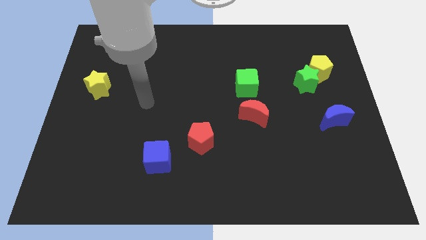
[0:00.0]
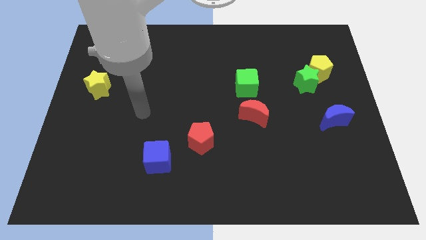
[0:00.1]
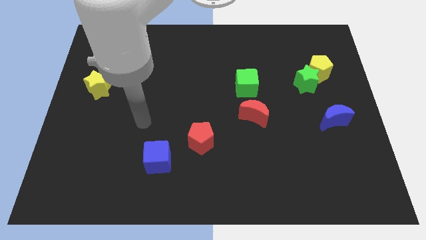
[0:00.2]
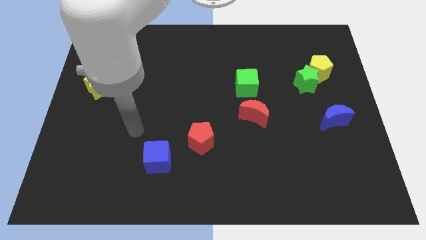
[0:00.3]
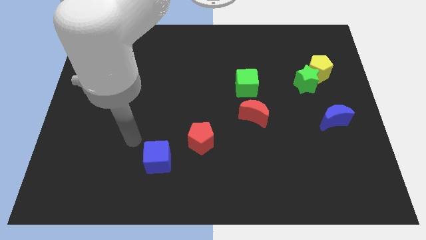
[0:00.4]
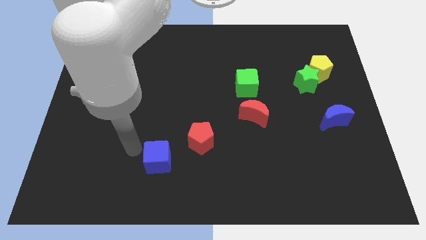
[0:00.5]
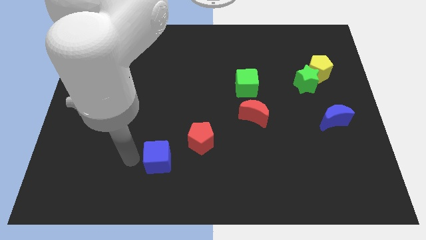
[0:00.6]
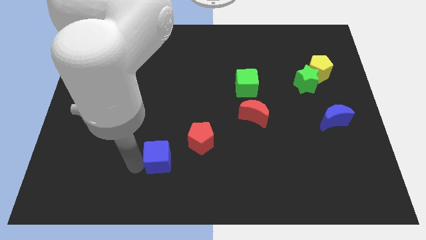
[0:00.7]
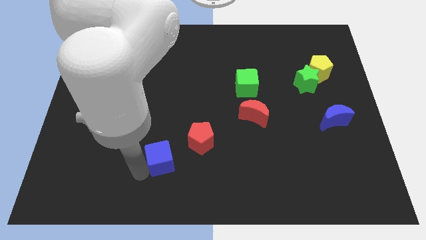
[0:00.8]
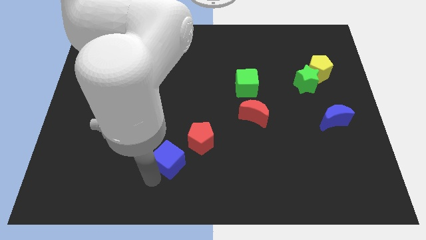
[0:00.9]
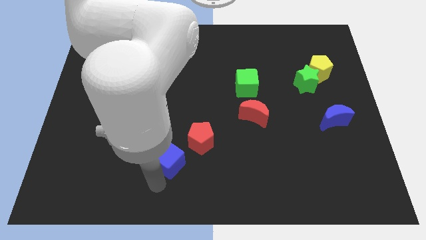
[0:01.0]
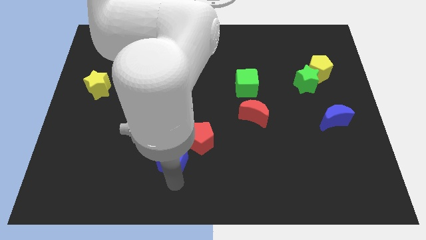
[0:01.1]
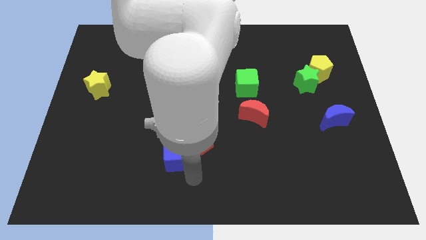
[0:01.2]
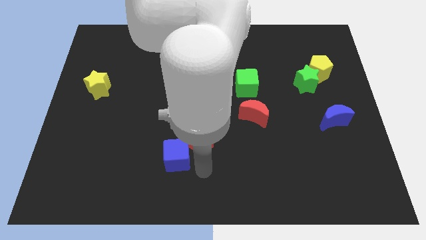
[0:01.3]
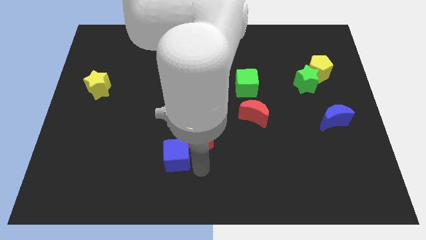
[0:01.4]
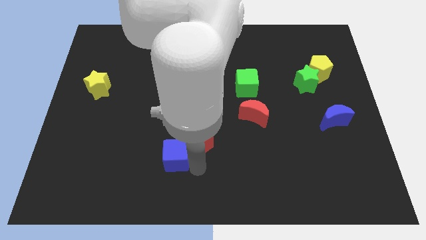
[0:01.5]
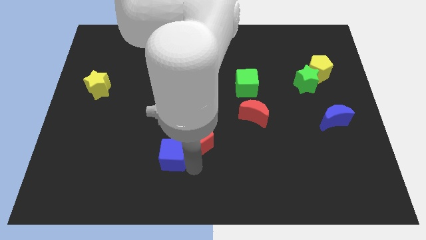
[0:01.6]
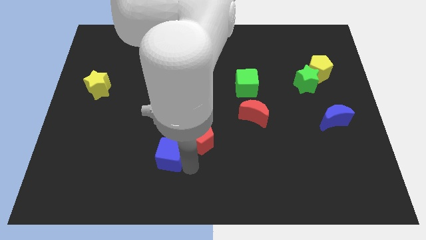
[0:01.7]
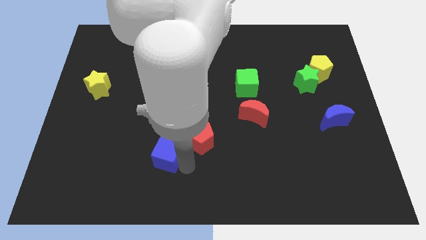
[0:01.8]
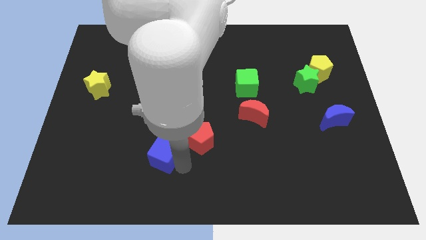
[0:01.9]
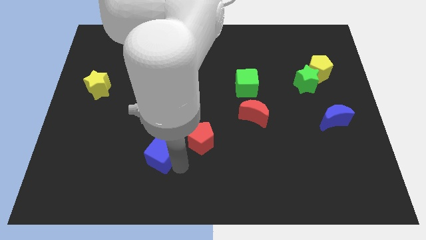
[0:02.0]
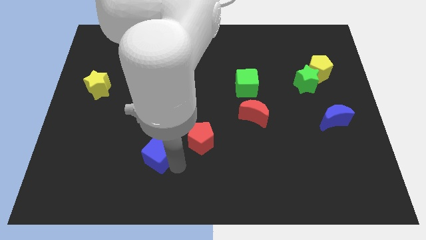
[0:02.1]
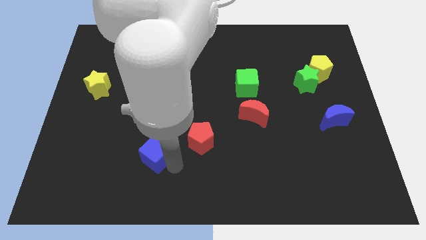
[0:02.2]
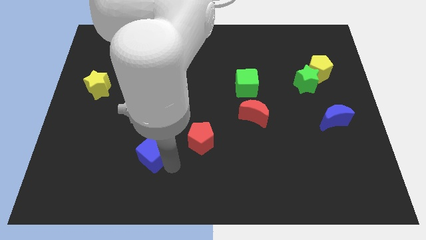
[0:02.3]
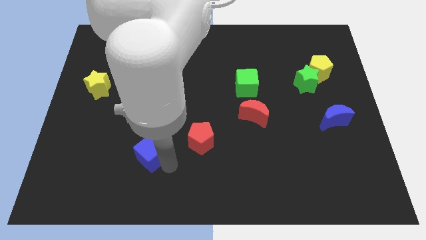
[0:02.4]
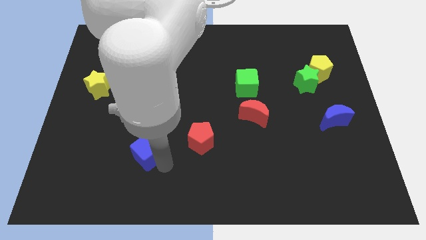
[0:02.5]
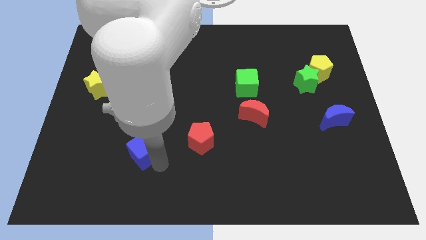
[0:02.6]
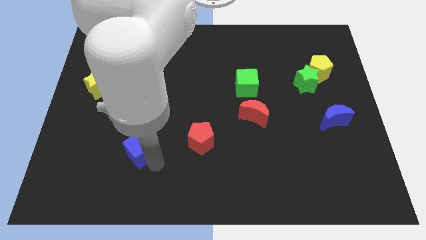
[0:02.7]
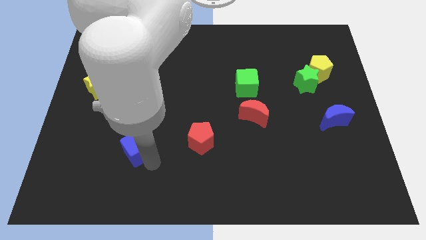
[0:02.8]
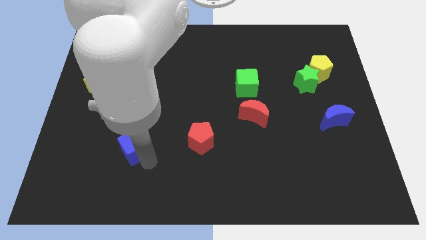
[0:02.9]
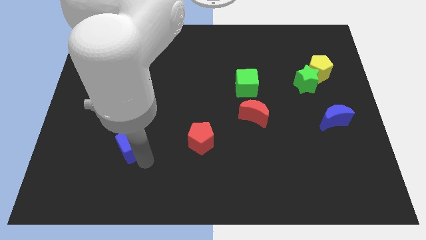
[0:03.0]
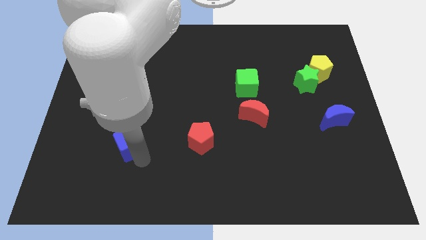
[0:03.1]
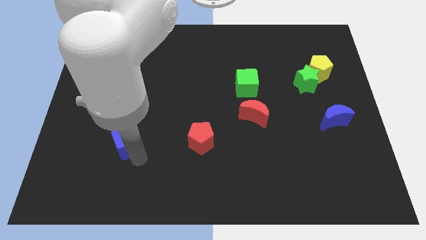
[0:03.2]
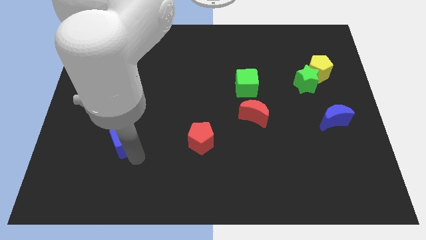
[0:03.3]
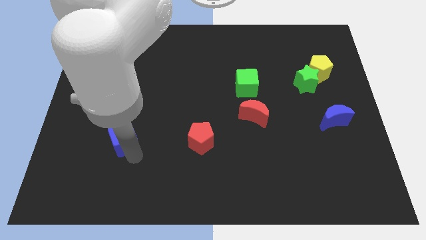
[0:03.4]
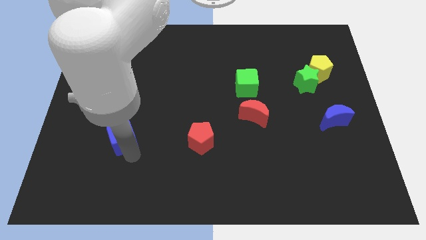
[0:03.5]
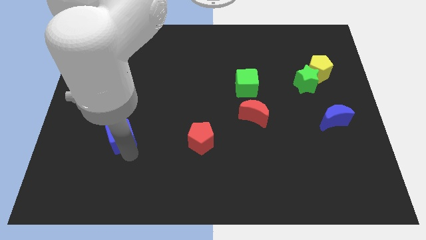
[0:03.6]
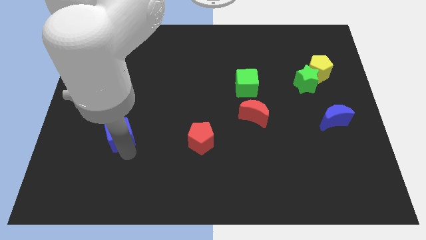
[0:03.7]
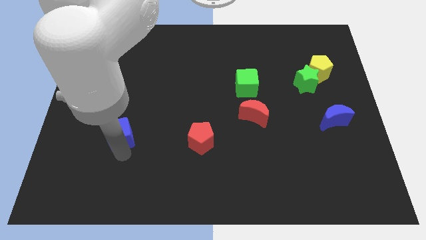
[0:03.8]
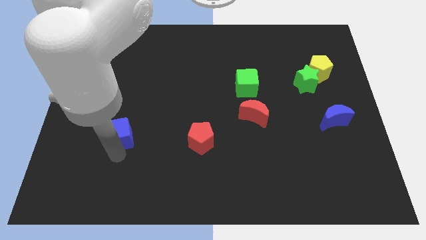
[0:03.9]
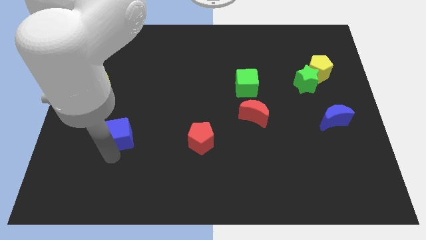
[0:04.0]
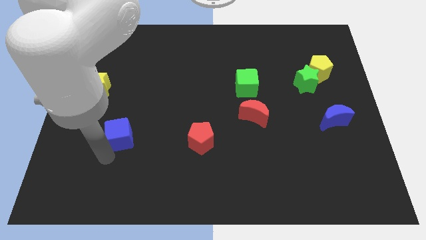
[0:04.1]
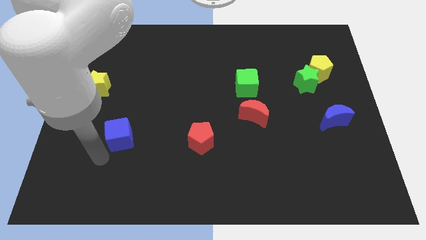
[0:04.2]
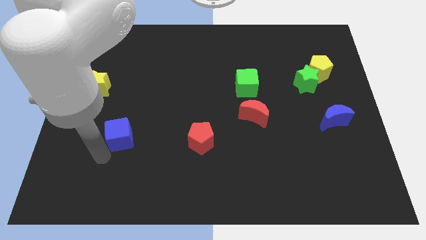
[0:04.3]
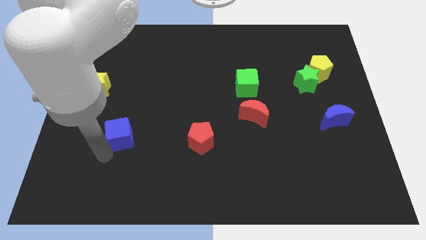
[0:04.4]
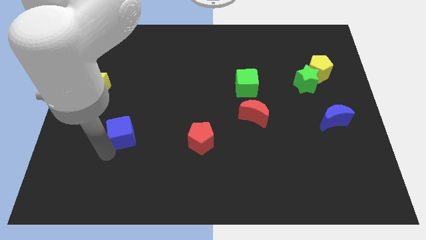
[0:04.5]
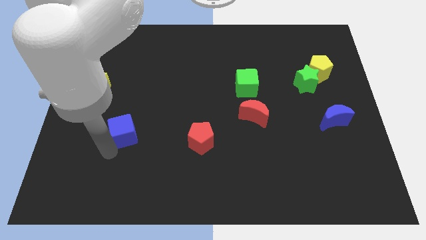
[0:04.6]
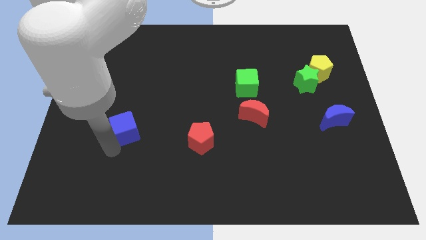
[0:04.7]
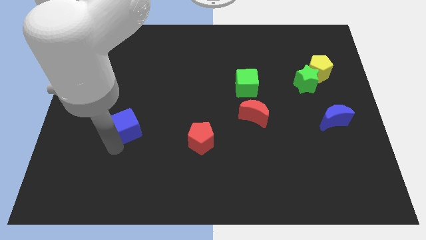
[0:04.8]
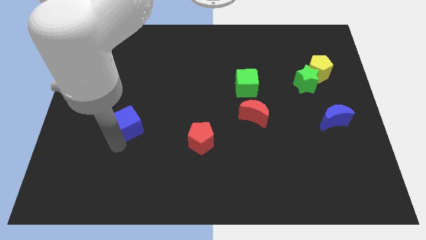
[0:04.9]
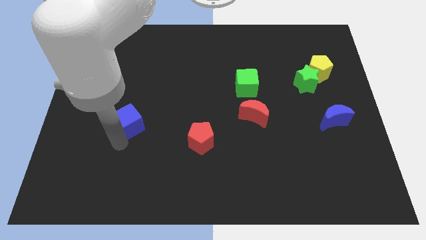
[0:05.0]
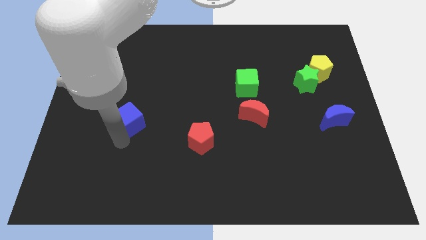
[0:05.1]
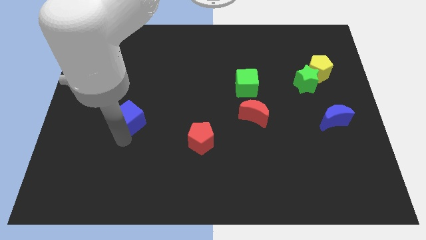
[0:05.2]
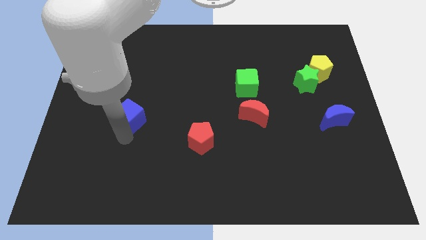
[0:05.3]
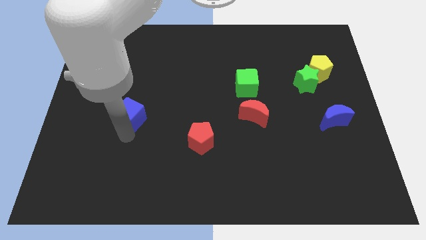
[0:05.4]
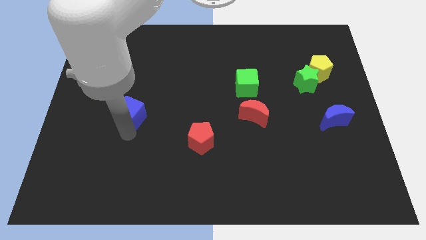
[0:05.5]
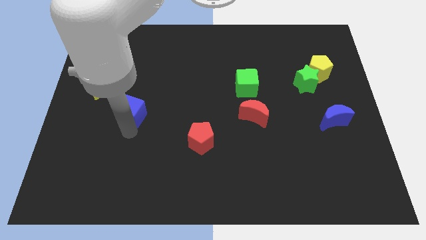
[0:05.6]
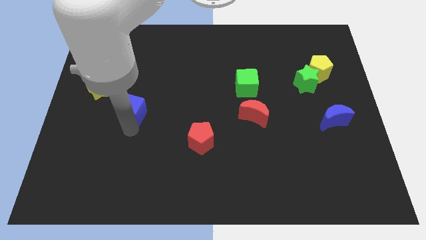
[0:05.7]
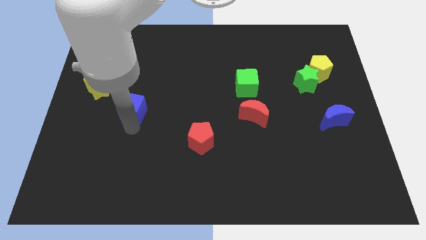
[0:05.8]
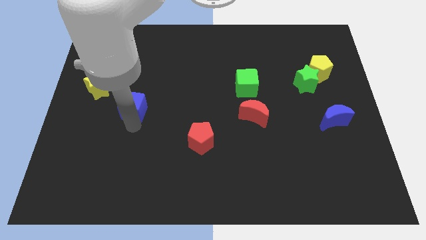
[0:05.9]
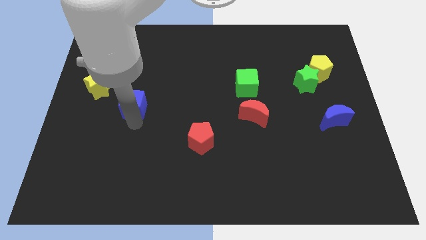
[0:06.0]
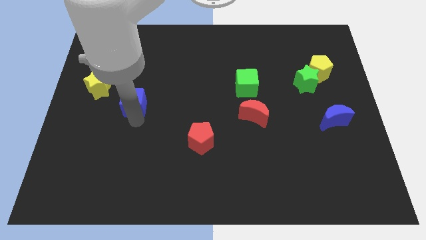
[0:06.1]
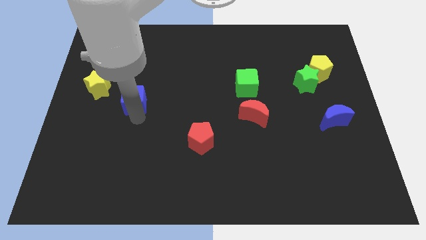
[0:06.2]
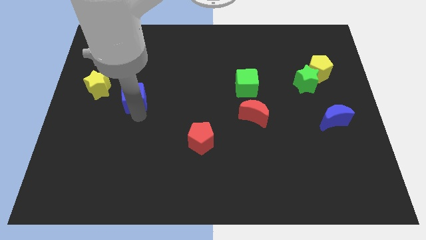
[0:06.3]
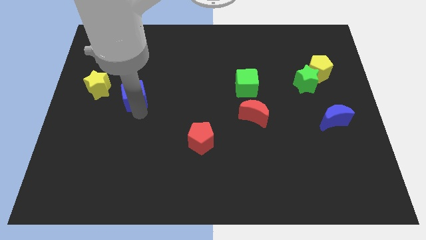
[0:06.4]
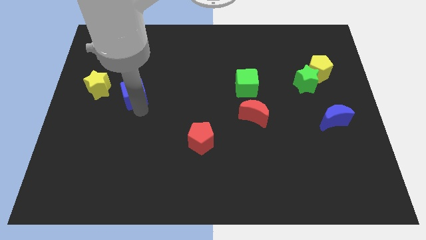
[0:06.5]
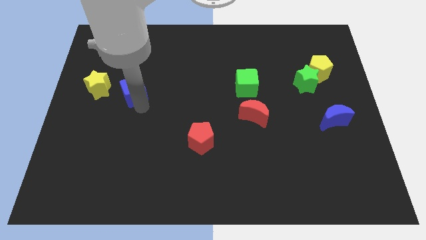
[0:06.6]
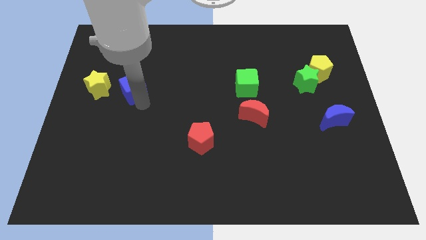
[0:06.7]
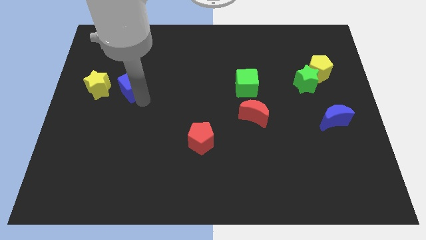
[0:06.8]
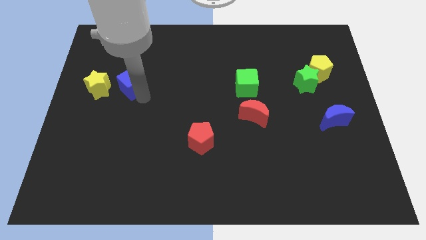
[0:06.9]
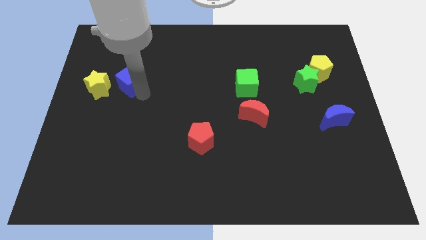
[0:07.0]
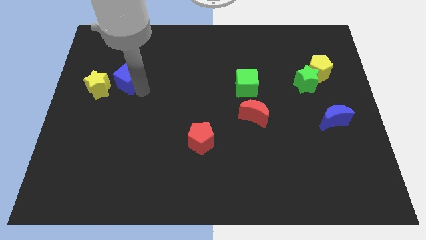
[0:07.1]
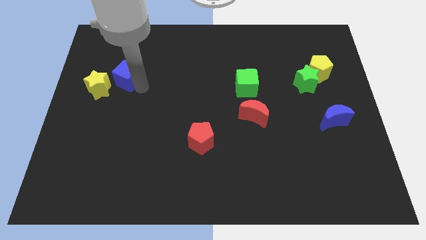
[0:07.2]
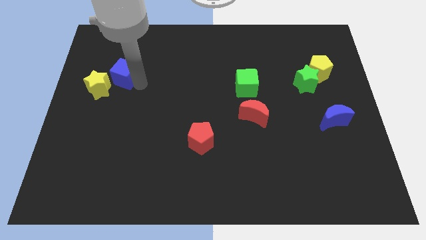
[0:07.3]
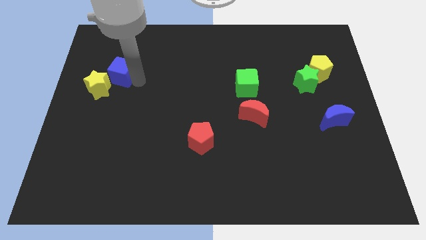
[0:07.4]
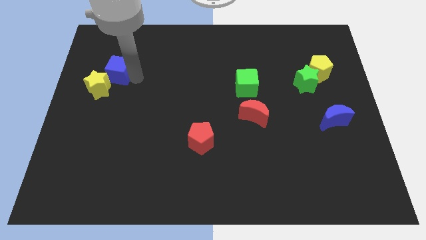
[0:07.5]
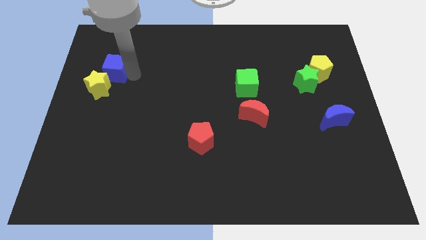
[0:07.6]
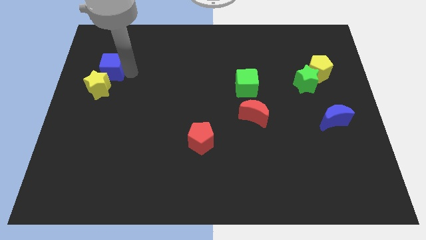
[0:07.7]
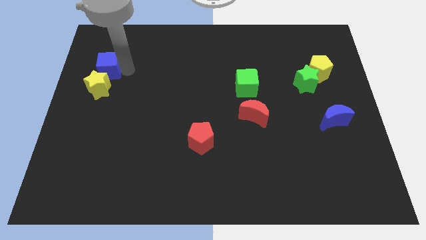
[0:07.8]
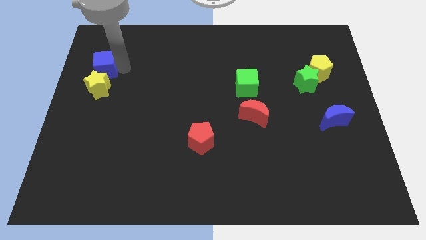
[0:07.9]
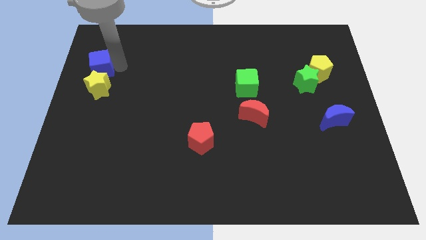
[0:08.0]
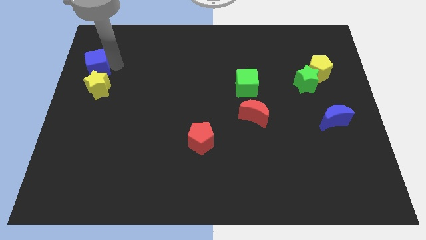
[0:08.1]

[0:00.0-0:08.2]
slide the blue cube to the left side of the board
